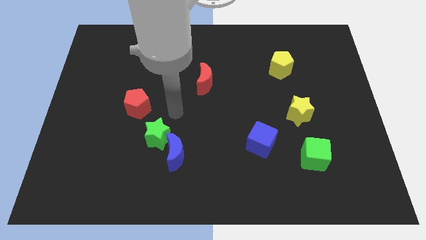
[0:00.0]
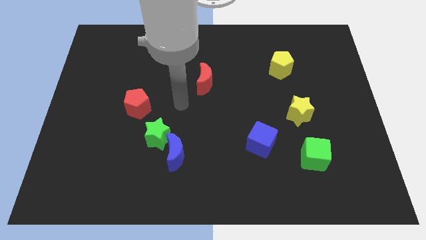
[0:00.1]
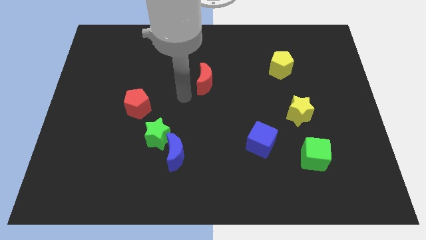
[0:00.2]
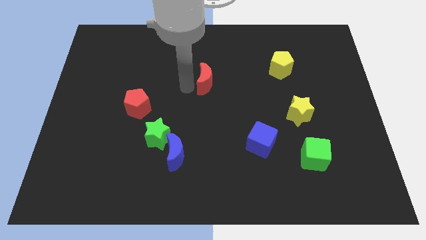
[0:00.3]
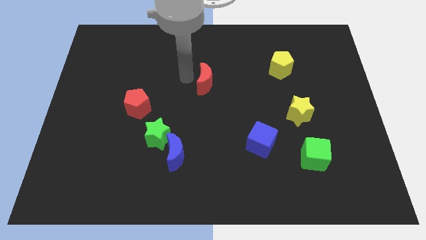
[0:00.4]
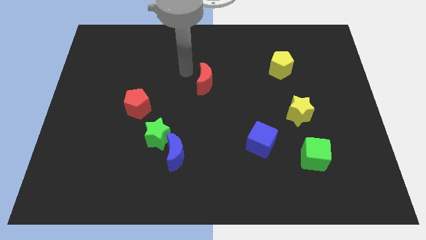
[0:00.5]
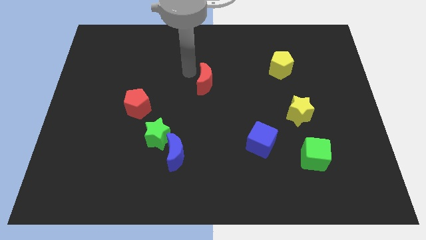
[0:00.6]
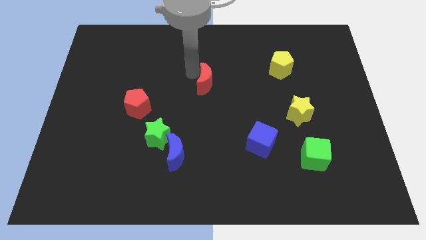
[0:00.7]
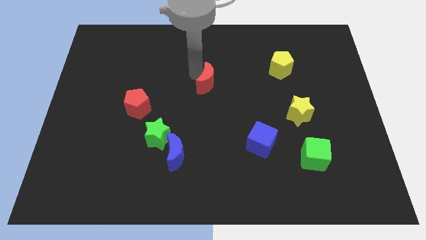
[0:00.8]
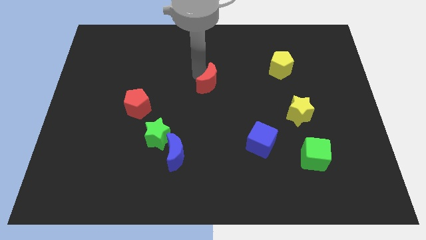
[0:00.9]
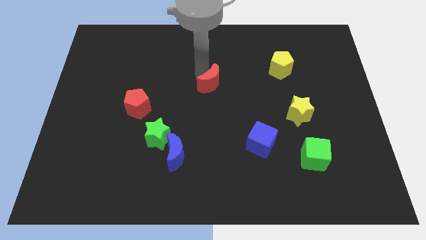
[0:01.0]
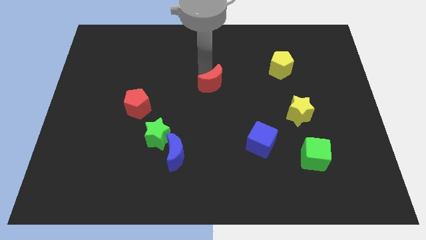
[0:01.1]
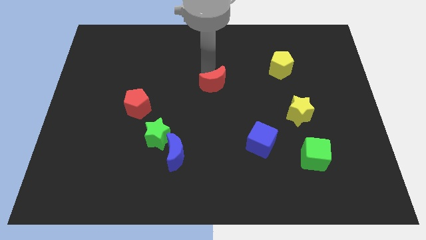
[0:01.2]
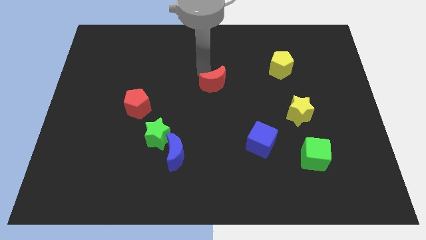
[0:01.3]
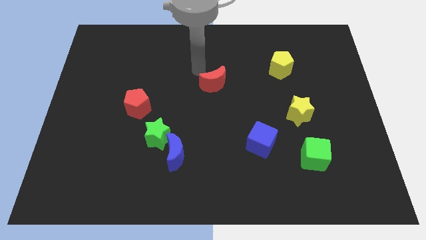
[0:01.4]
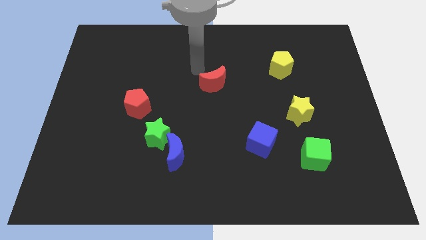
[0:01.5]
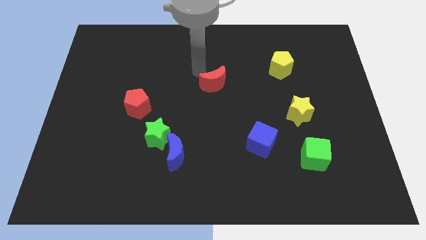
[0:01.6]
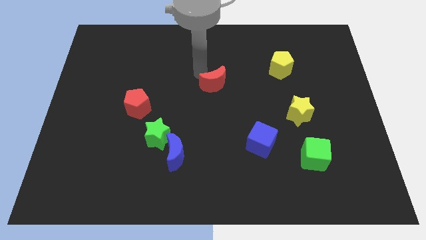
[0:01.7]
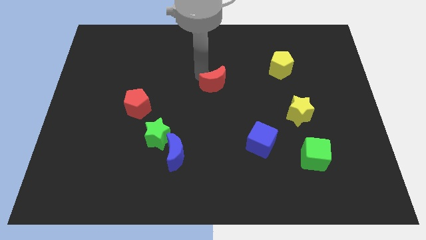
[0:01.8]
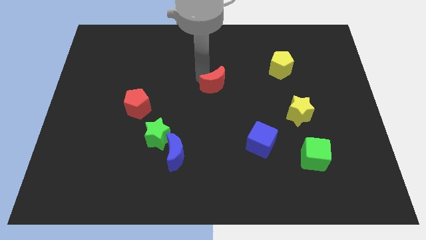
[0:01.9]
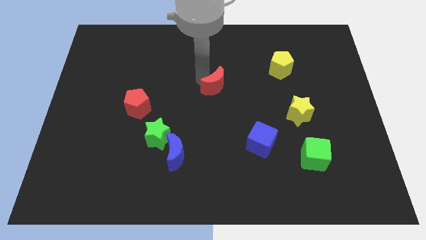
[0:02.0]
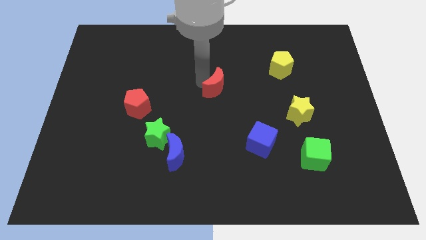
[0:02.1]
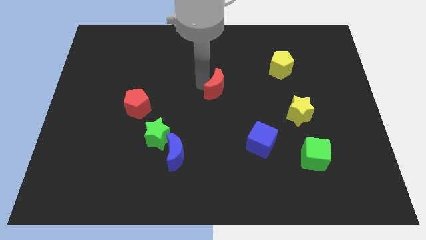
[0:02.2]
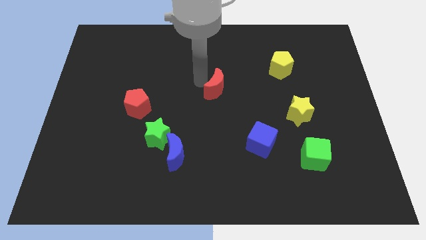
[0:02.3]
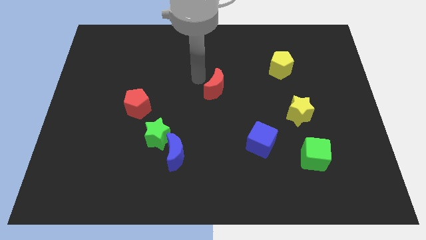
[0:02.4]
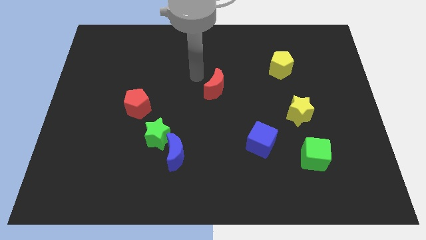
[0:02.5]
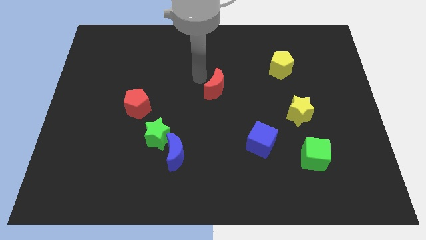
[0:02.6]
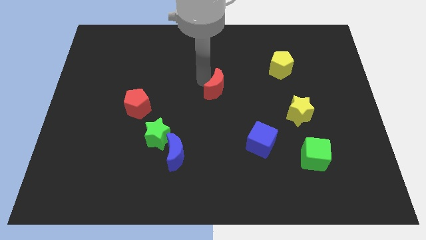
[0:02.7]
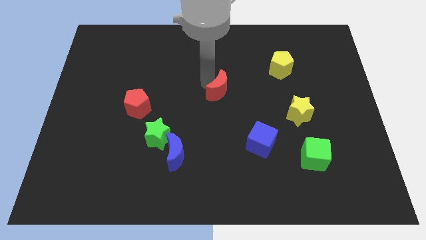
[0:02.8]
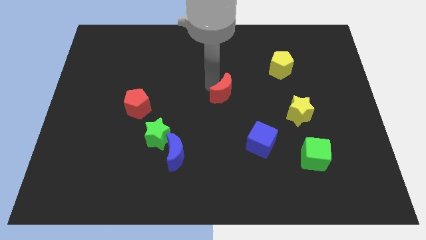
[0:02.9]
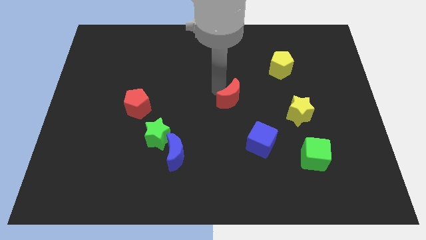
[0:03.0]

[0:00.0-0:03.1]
move the red moon slightly downwards and then to the right

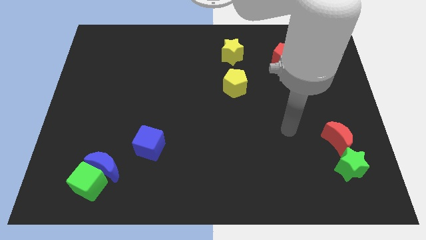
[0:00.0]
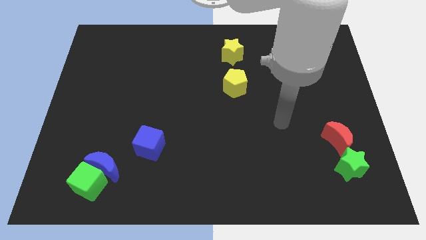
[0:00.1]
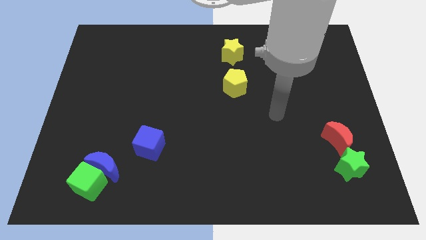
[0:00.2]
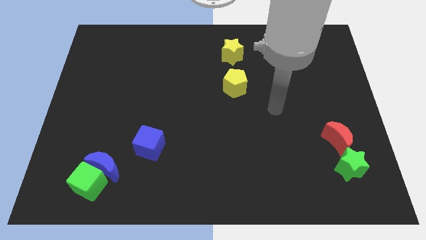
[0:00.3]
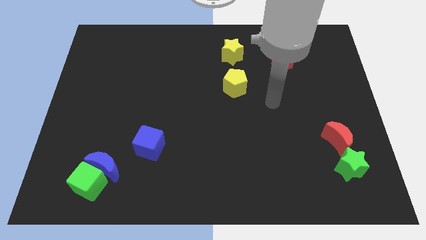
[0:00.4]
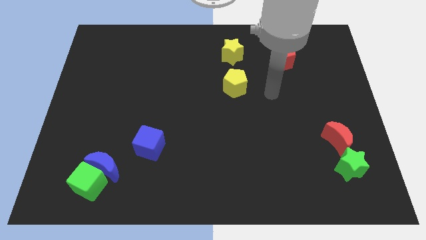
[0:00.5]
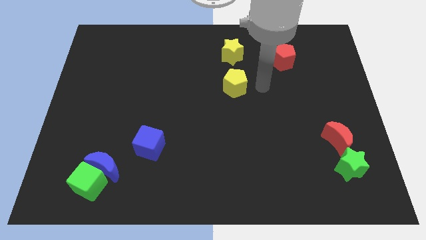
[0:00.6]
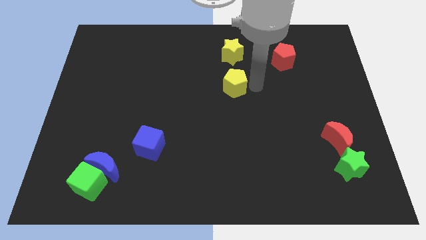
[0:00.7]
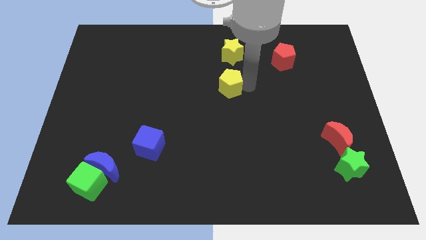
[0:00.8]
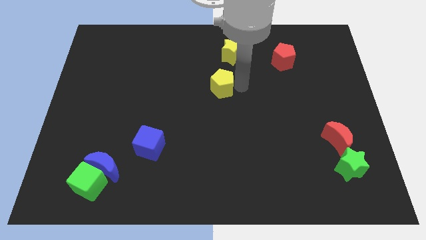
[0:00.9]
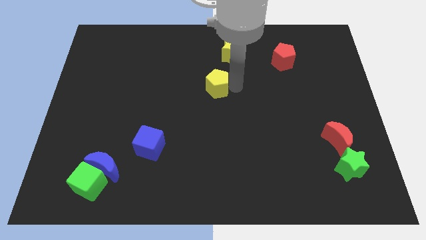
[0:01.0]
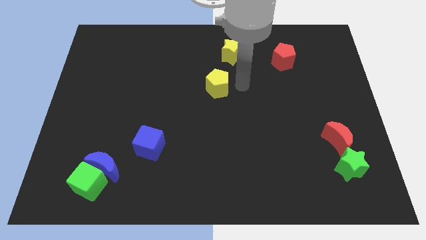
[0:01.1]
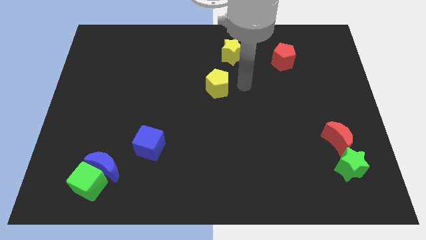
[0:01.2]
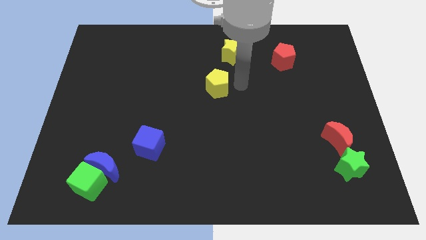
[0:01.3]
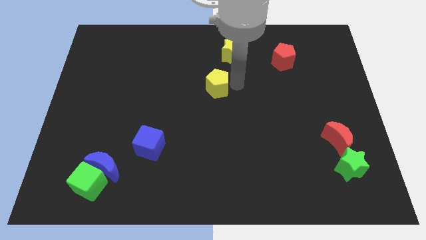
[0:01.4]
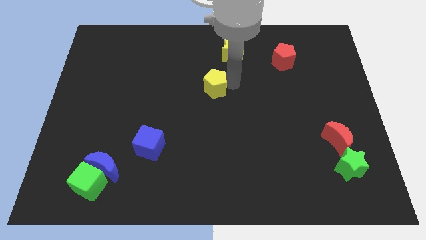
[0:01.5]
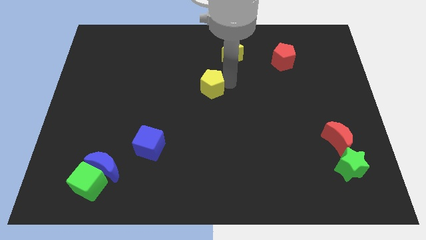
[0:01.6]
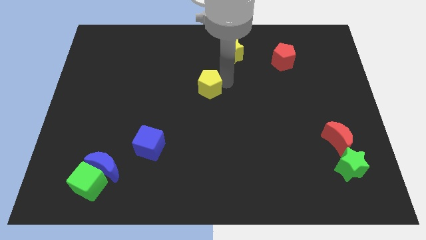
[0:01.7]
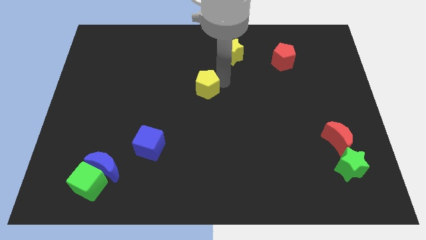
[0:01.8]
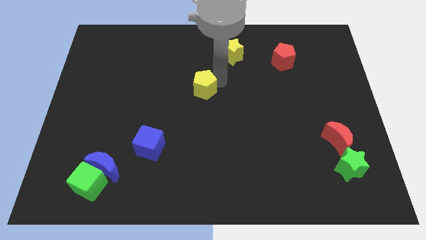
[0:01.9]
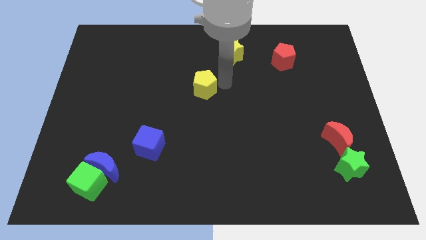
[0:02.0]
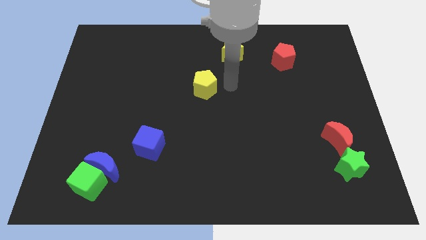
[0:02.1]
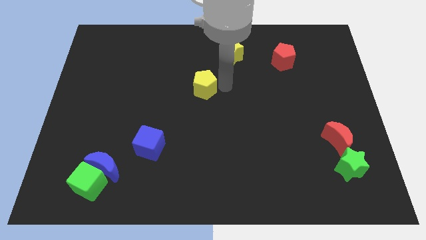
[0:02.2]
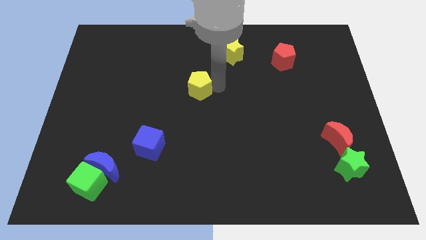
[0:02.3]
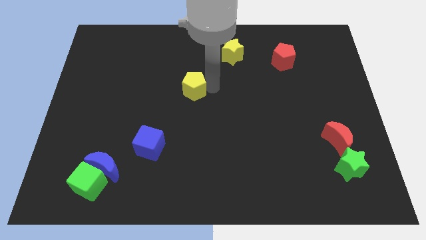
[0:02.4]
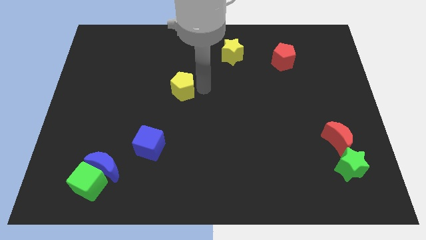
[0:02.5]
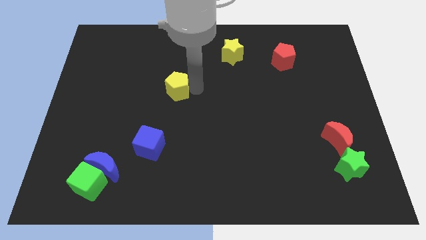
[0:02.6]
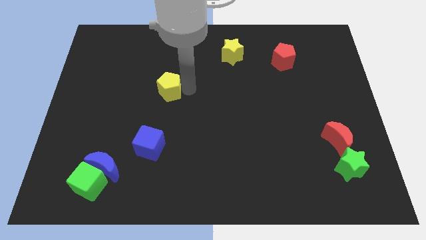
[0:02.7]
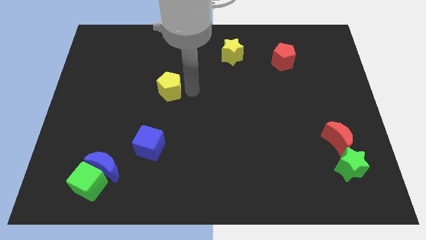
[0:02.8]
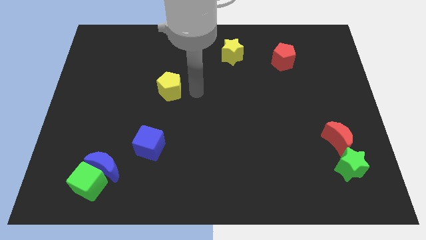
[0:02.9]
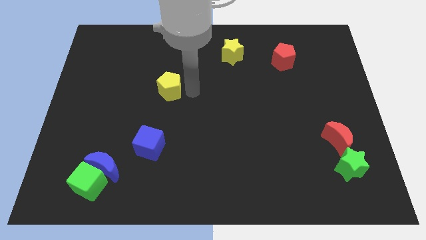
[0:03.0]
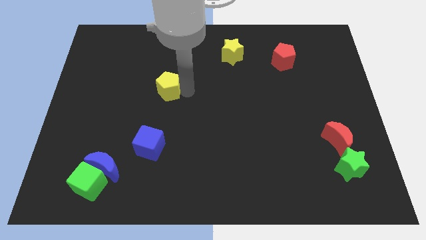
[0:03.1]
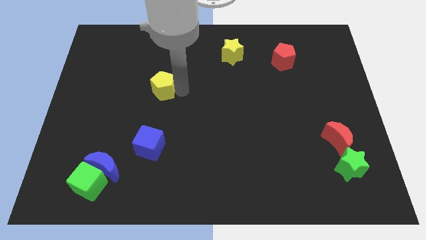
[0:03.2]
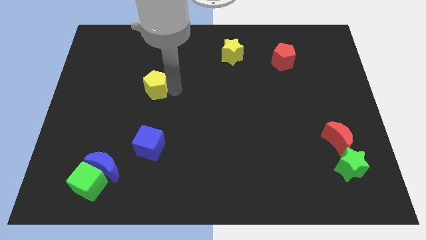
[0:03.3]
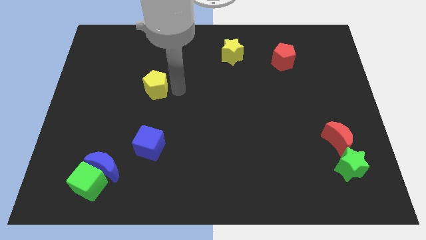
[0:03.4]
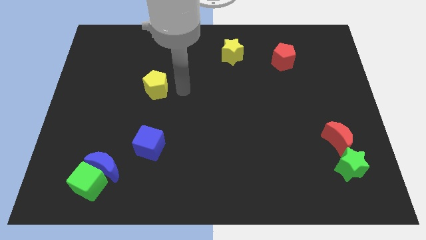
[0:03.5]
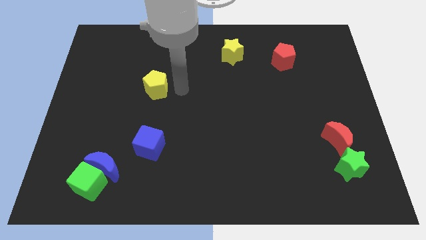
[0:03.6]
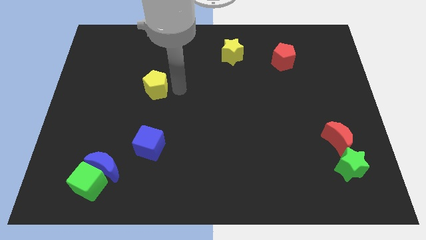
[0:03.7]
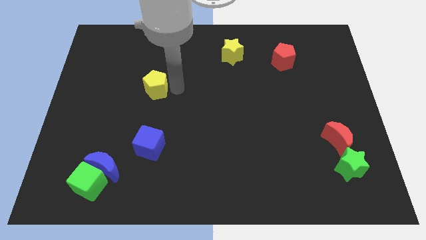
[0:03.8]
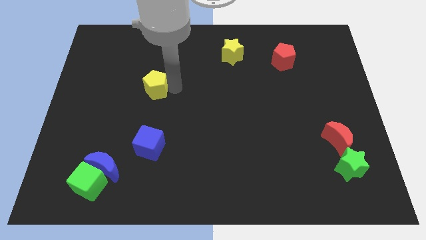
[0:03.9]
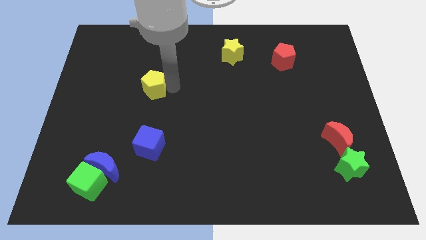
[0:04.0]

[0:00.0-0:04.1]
slide the yellow pentagon to the left

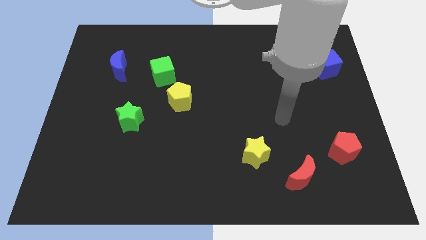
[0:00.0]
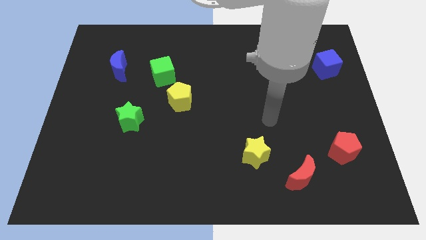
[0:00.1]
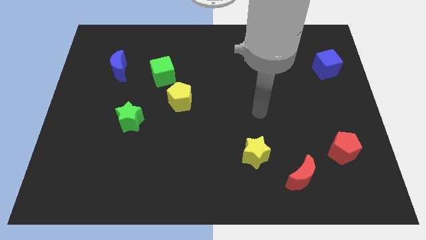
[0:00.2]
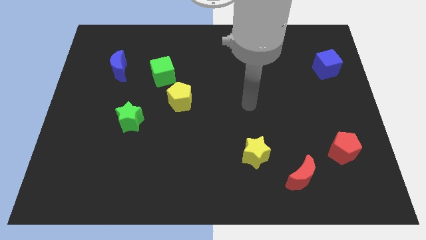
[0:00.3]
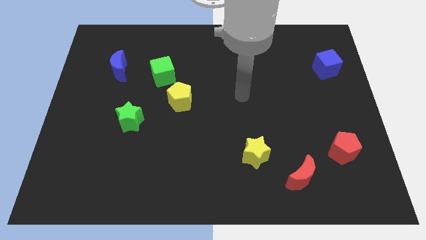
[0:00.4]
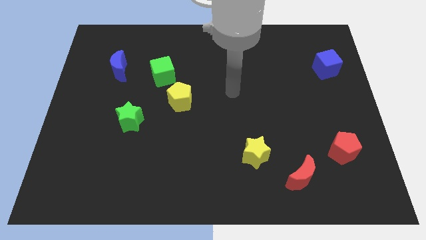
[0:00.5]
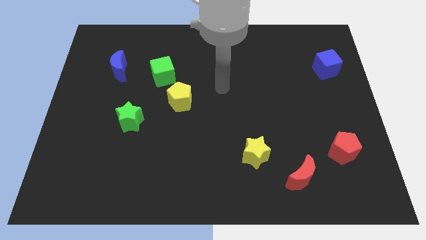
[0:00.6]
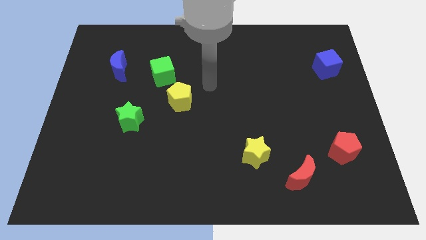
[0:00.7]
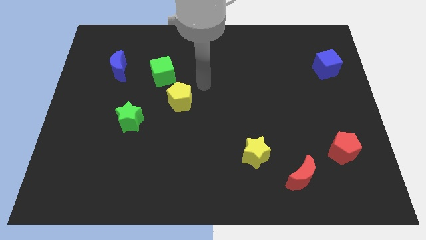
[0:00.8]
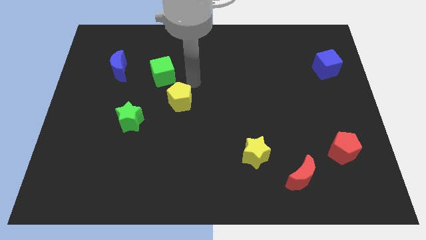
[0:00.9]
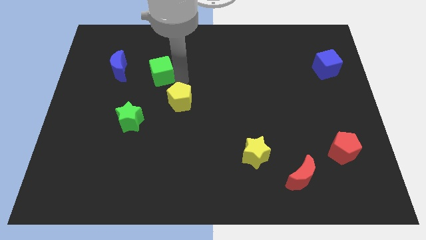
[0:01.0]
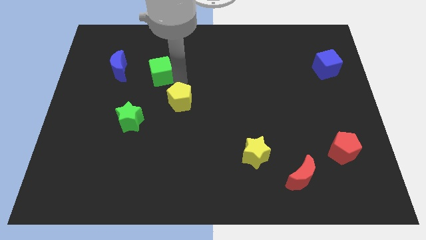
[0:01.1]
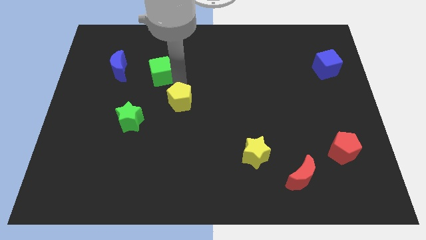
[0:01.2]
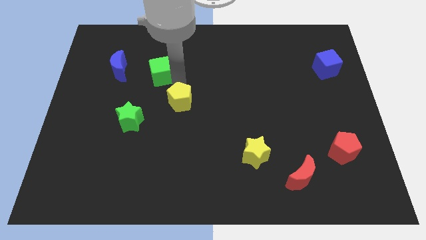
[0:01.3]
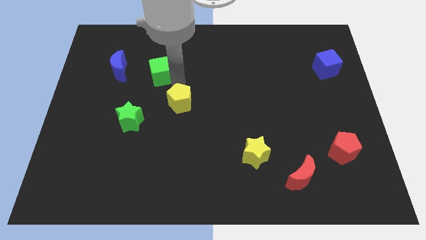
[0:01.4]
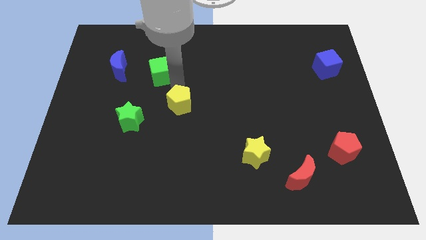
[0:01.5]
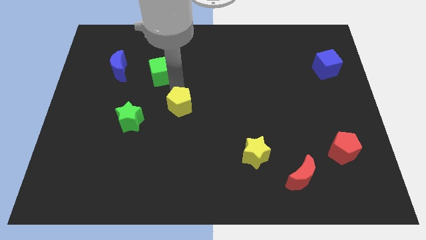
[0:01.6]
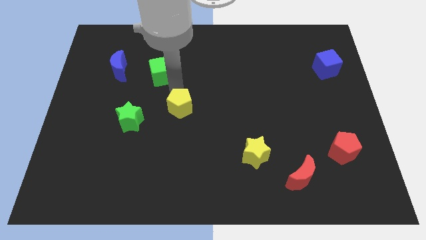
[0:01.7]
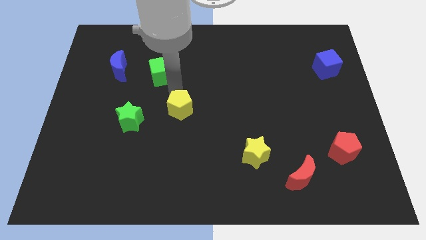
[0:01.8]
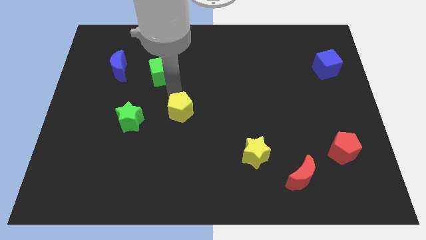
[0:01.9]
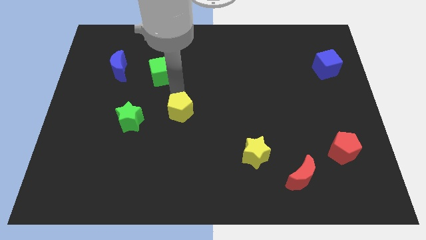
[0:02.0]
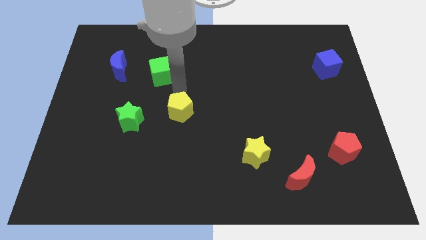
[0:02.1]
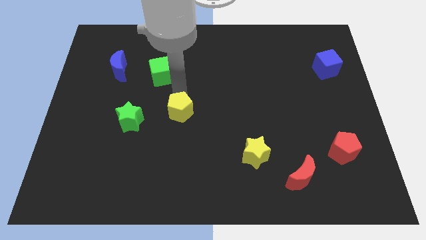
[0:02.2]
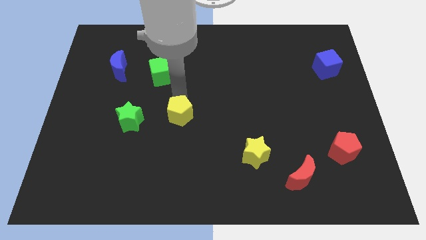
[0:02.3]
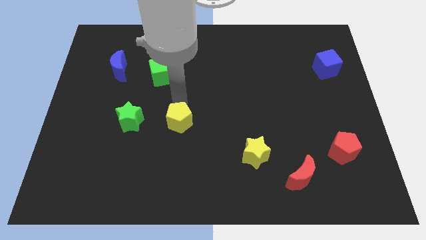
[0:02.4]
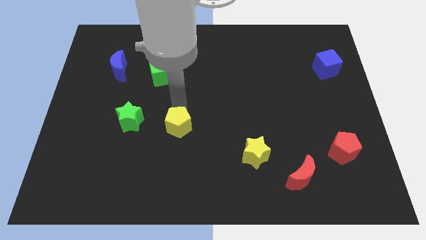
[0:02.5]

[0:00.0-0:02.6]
move the yellow pentagon down a little bit
